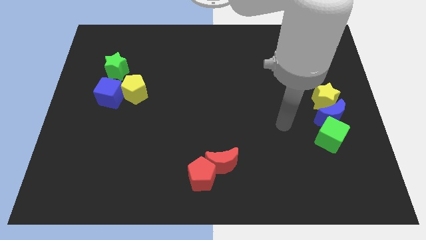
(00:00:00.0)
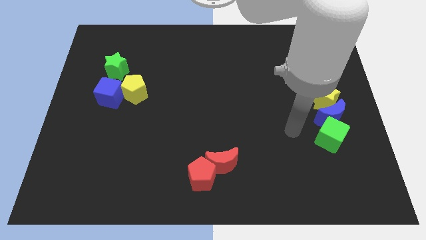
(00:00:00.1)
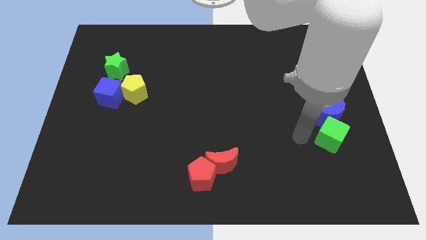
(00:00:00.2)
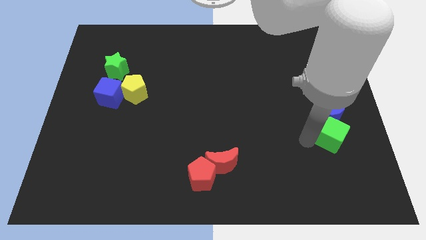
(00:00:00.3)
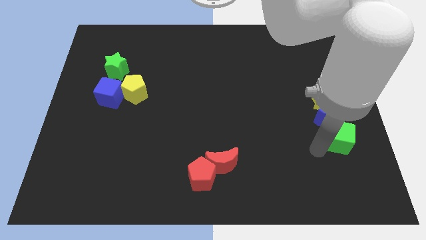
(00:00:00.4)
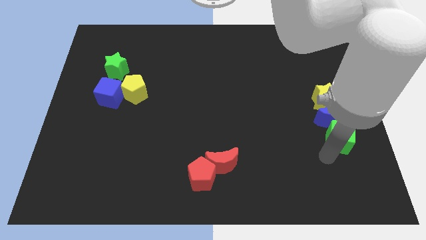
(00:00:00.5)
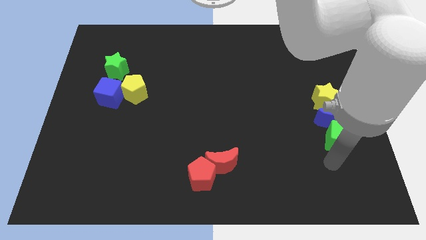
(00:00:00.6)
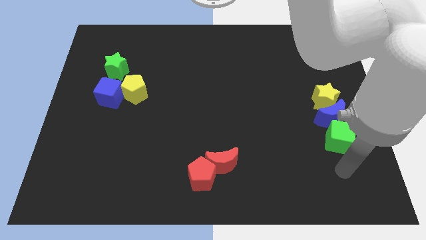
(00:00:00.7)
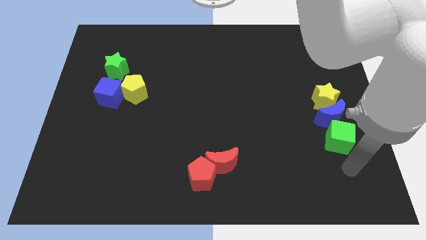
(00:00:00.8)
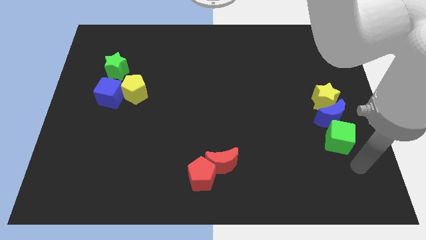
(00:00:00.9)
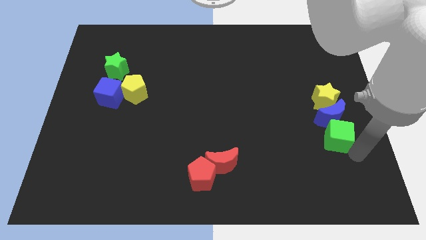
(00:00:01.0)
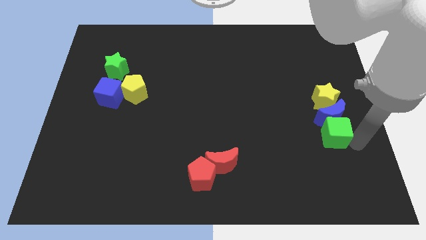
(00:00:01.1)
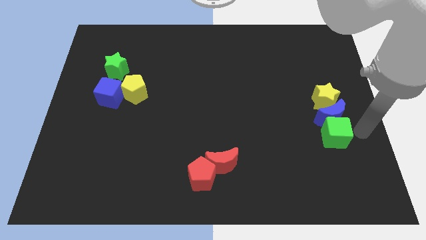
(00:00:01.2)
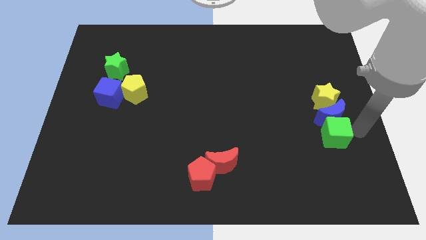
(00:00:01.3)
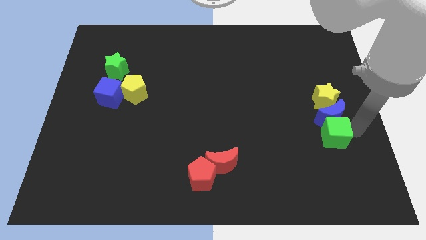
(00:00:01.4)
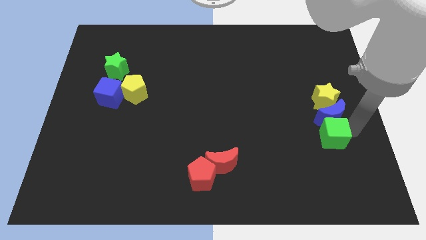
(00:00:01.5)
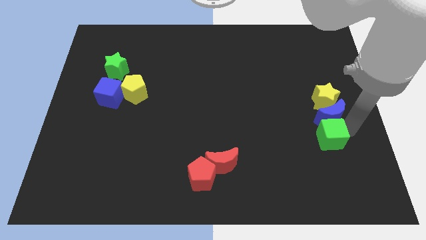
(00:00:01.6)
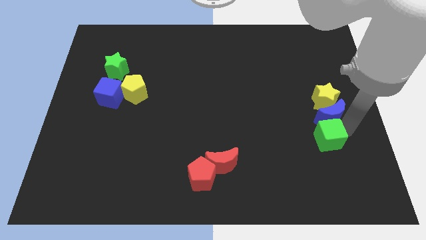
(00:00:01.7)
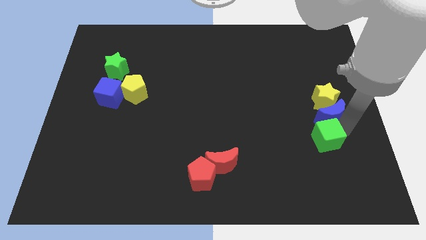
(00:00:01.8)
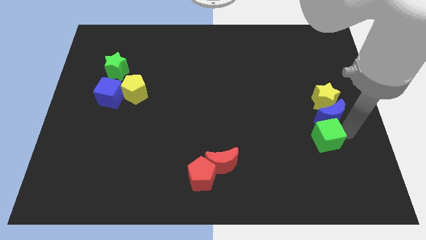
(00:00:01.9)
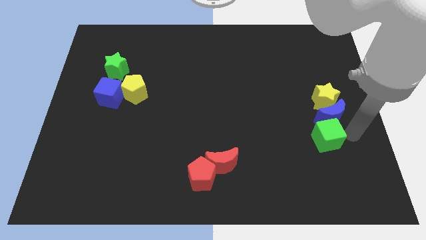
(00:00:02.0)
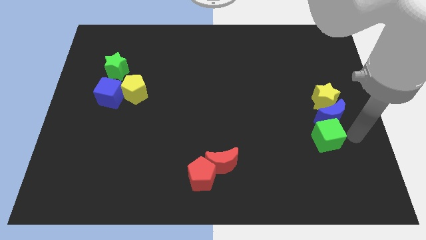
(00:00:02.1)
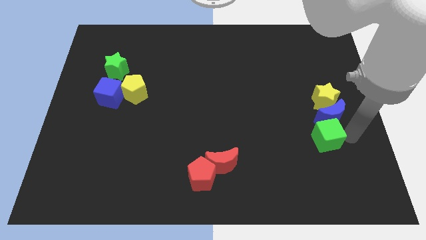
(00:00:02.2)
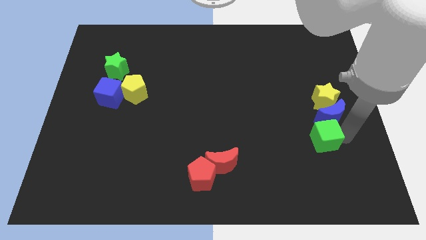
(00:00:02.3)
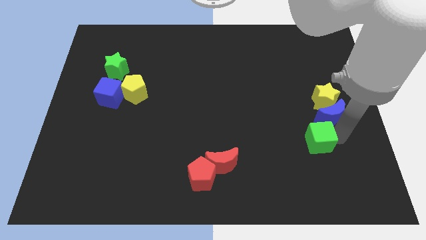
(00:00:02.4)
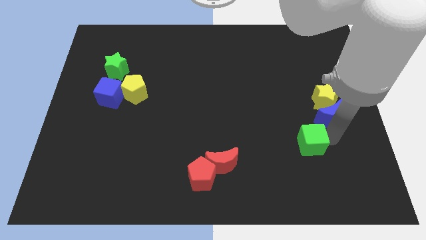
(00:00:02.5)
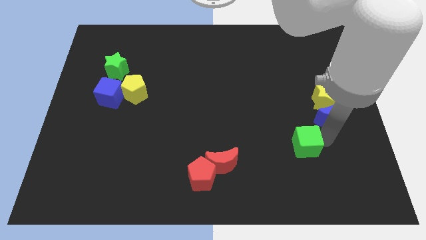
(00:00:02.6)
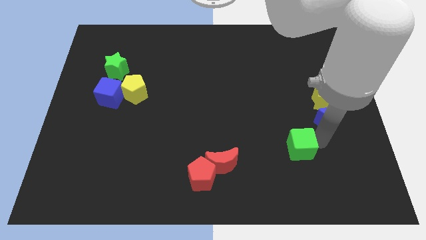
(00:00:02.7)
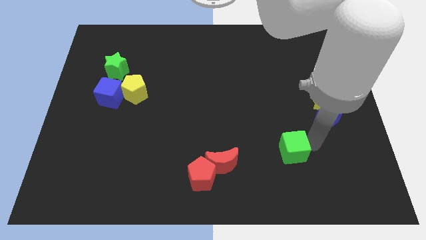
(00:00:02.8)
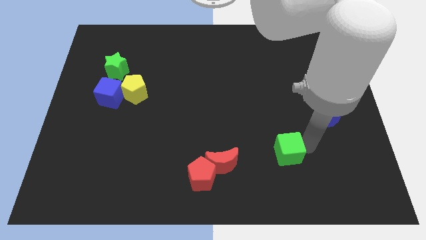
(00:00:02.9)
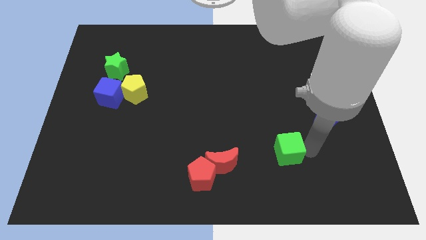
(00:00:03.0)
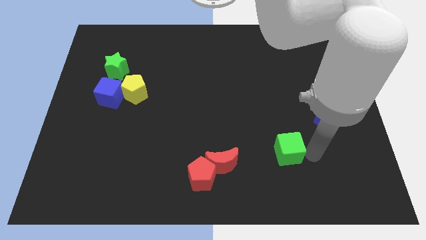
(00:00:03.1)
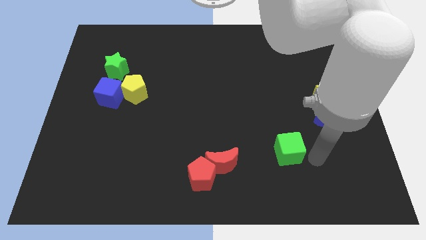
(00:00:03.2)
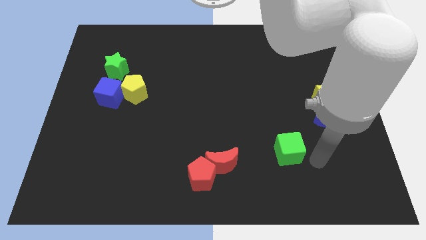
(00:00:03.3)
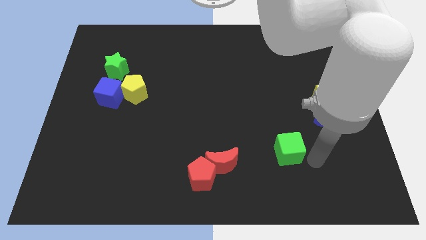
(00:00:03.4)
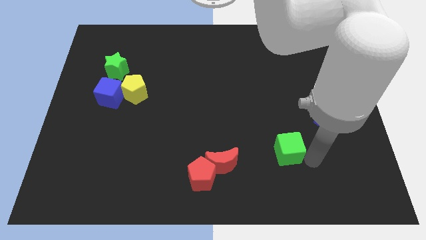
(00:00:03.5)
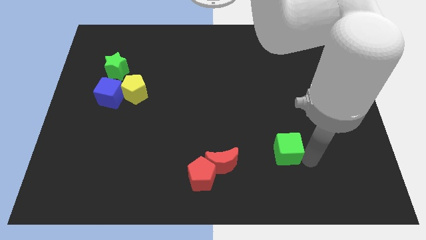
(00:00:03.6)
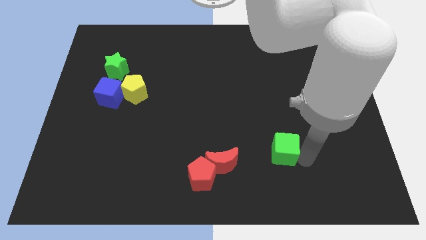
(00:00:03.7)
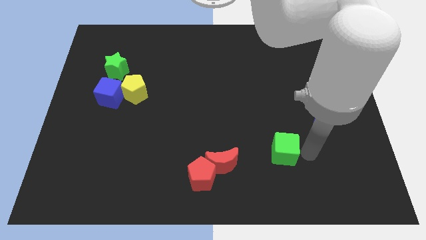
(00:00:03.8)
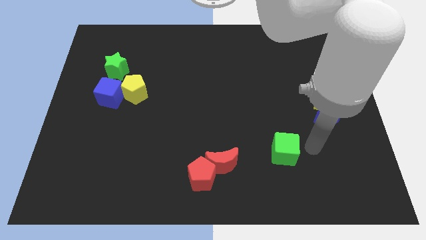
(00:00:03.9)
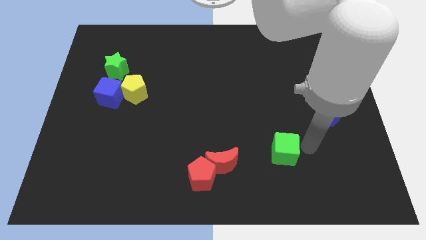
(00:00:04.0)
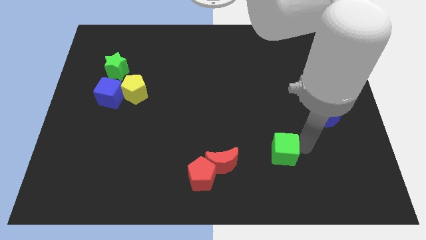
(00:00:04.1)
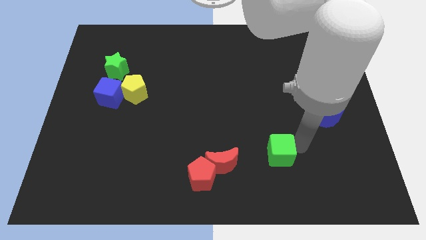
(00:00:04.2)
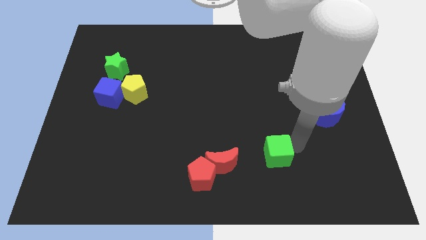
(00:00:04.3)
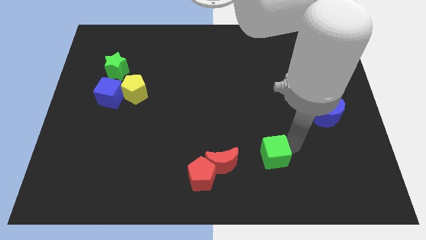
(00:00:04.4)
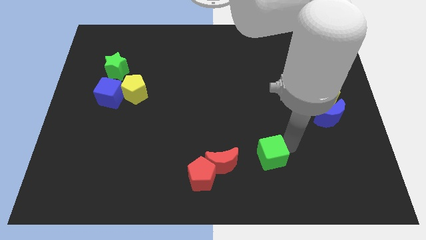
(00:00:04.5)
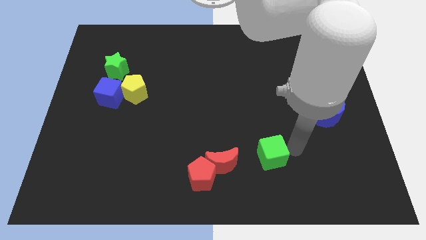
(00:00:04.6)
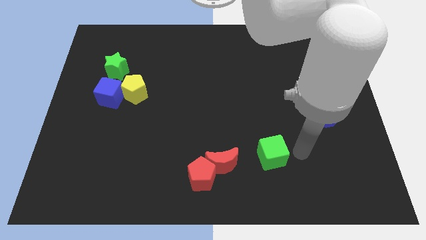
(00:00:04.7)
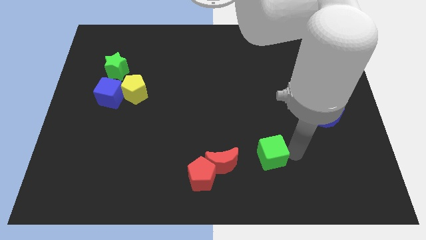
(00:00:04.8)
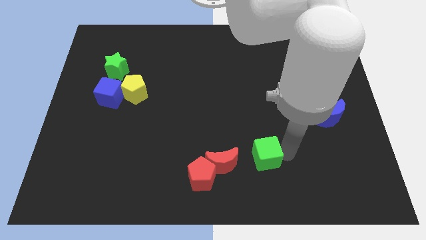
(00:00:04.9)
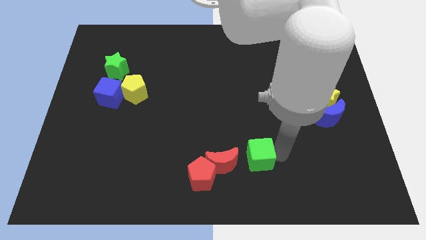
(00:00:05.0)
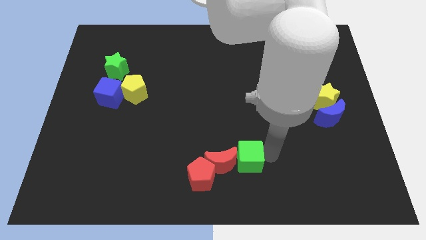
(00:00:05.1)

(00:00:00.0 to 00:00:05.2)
slide the green cube next to the red moon

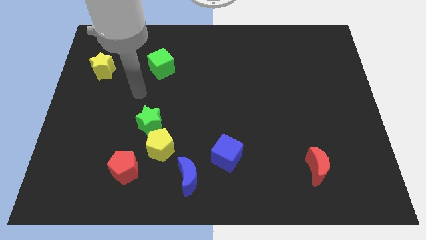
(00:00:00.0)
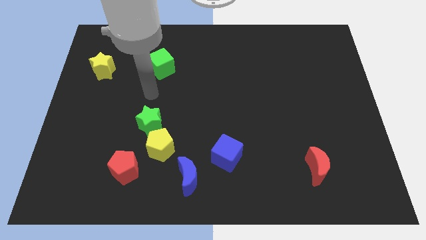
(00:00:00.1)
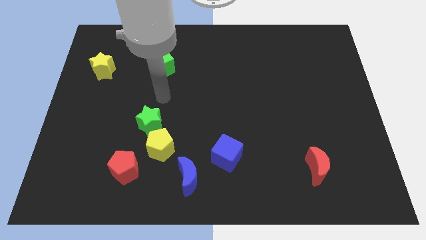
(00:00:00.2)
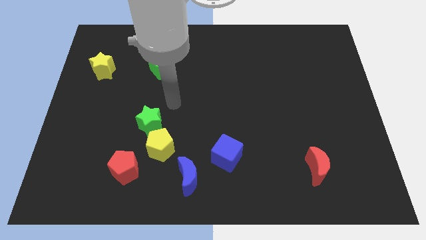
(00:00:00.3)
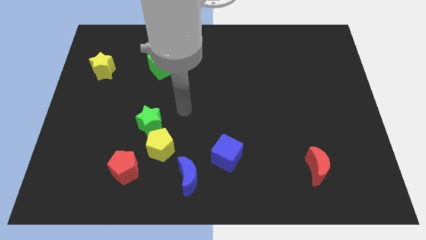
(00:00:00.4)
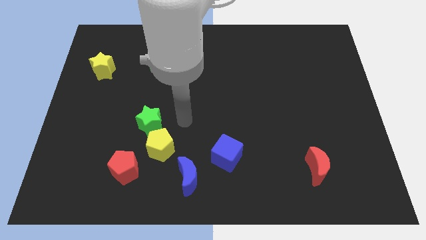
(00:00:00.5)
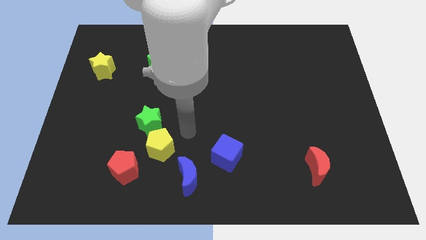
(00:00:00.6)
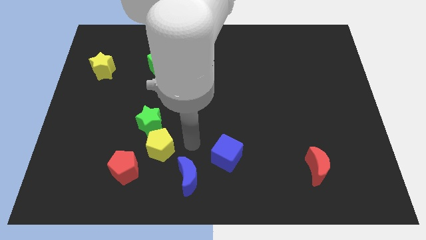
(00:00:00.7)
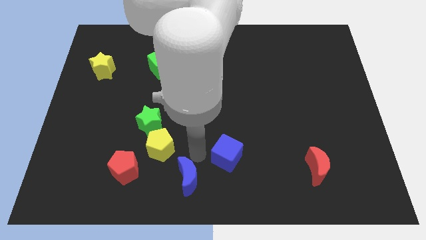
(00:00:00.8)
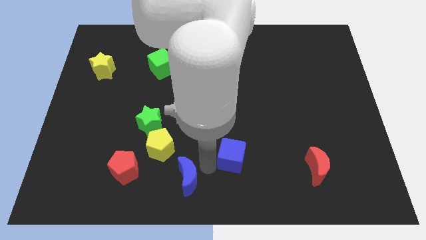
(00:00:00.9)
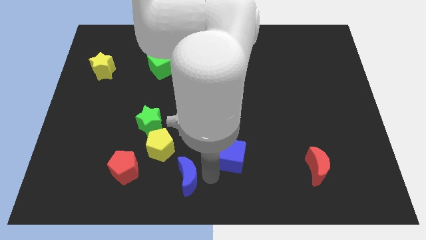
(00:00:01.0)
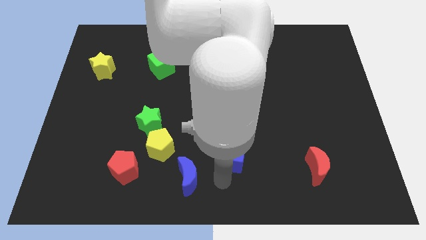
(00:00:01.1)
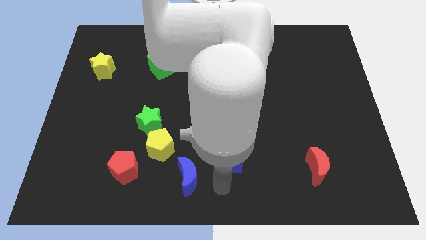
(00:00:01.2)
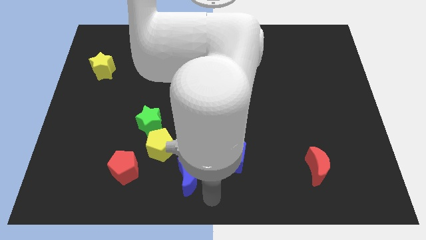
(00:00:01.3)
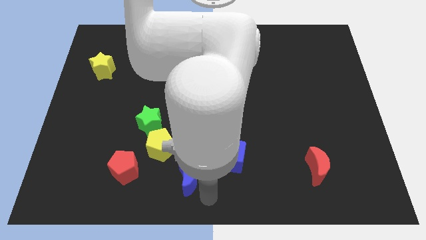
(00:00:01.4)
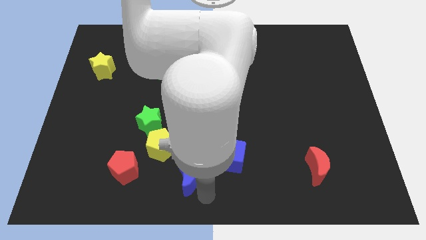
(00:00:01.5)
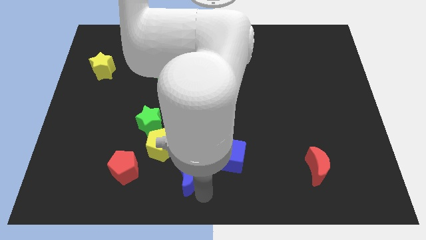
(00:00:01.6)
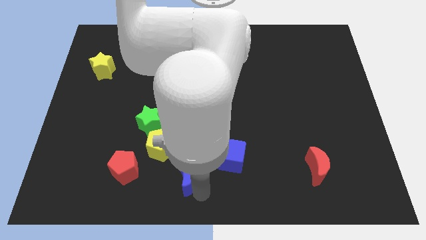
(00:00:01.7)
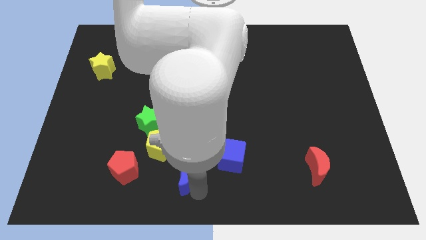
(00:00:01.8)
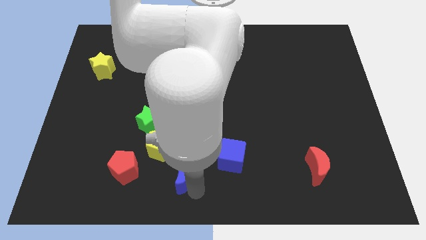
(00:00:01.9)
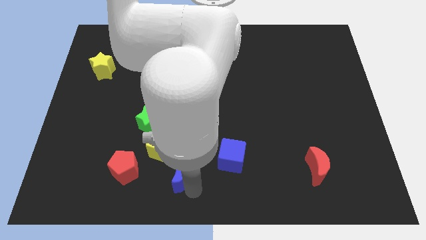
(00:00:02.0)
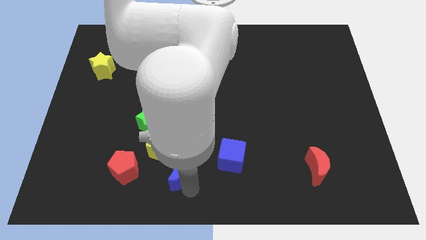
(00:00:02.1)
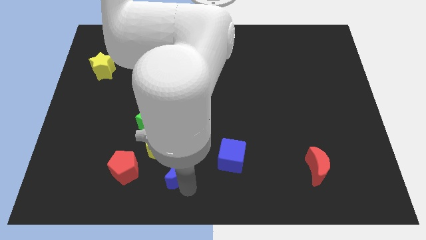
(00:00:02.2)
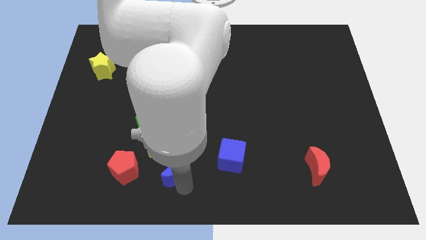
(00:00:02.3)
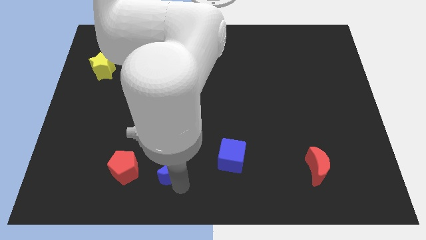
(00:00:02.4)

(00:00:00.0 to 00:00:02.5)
push the blue moon towards the yellow pentagon

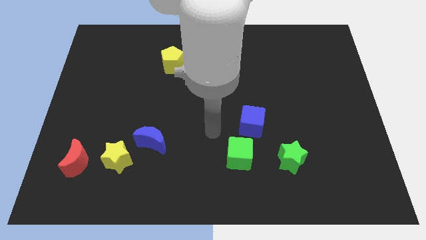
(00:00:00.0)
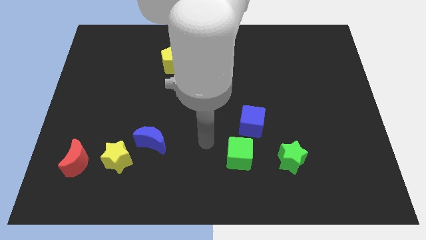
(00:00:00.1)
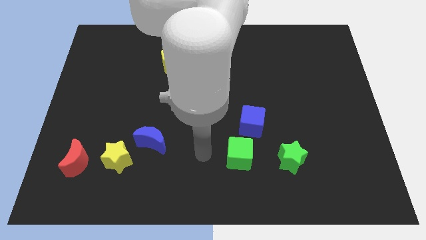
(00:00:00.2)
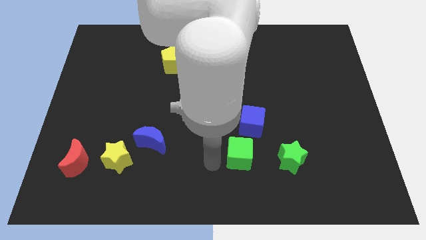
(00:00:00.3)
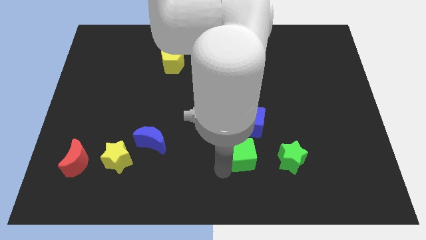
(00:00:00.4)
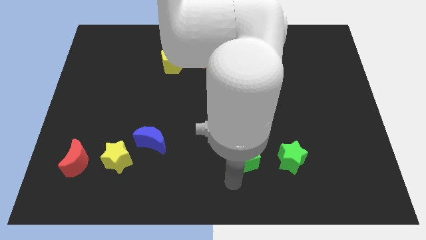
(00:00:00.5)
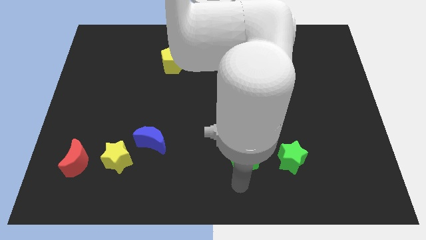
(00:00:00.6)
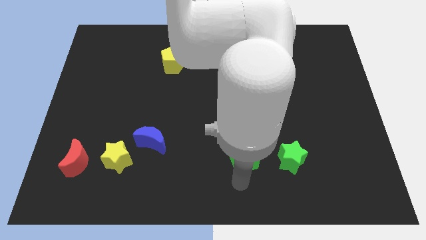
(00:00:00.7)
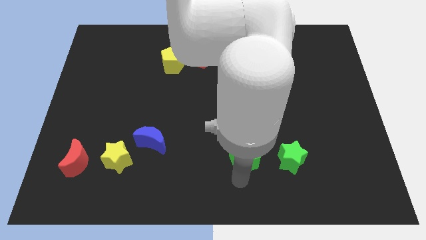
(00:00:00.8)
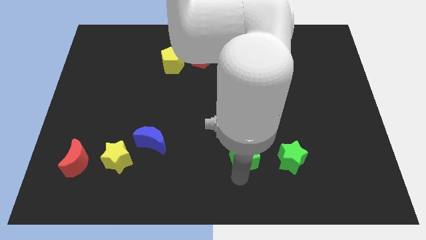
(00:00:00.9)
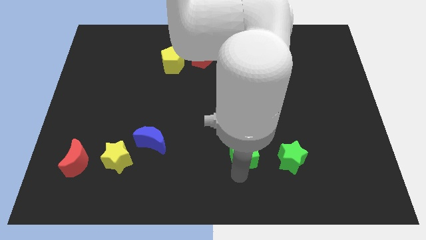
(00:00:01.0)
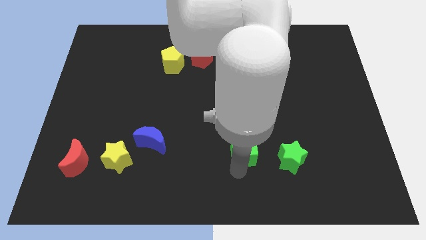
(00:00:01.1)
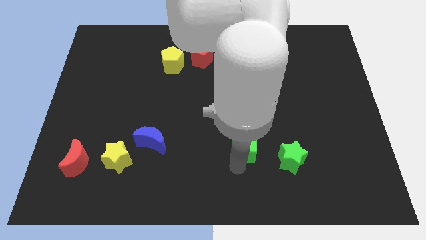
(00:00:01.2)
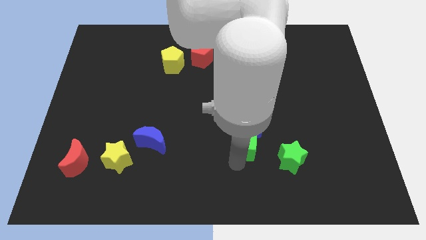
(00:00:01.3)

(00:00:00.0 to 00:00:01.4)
put the green cube next to the blue cube
